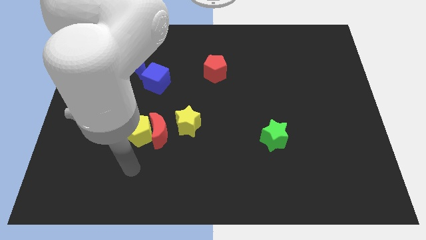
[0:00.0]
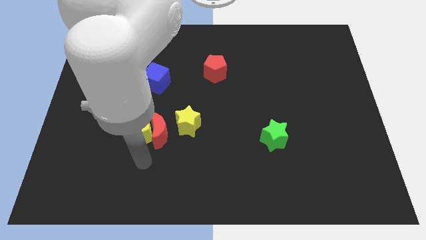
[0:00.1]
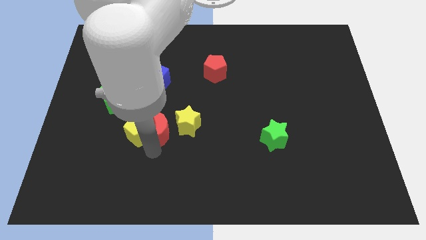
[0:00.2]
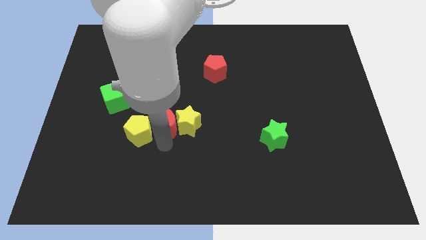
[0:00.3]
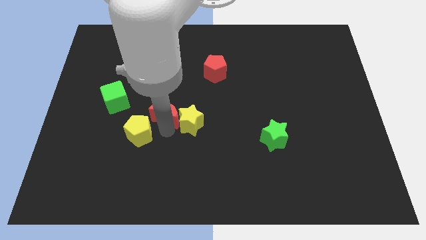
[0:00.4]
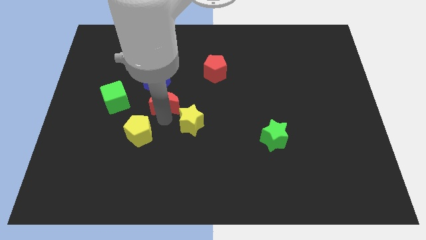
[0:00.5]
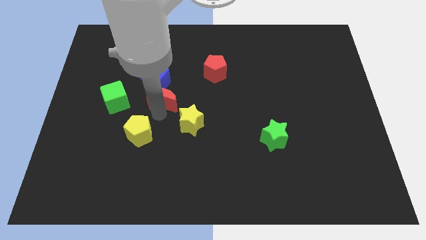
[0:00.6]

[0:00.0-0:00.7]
pull the yellow pentagon apart from the red moon

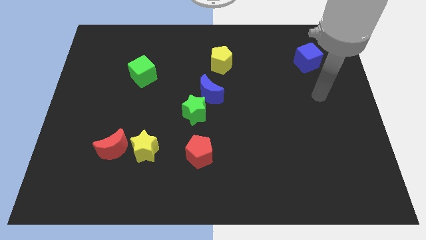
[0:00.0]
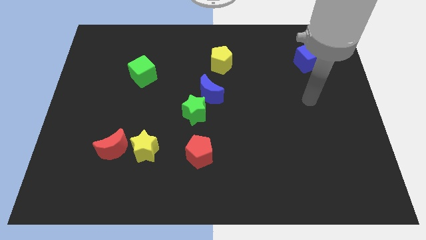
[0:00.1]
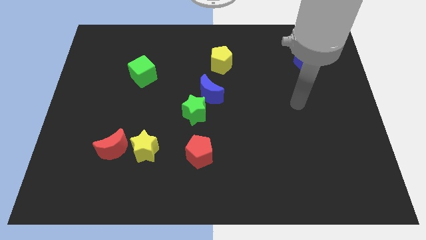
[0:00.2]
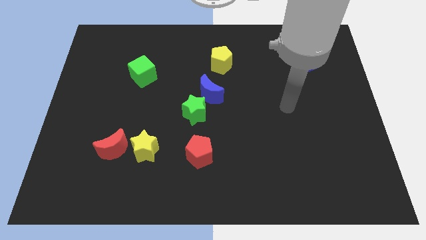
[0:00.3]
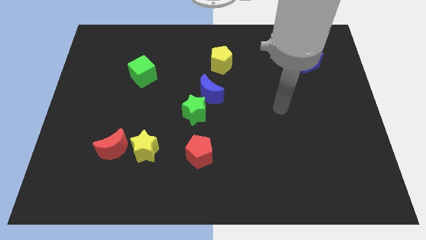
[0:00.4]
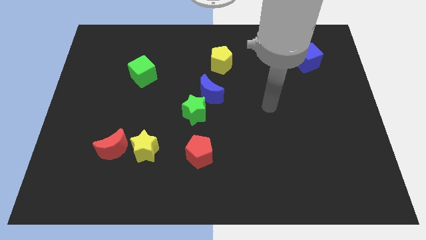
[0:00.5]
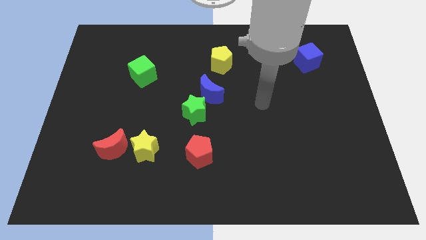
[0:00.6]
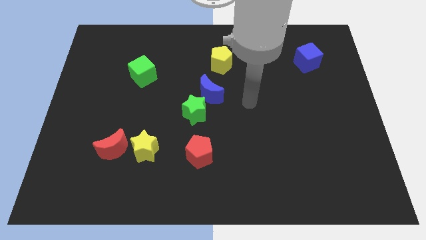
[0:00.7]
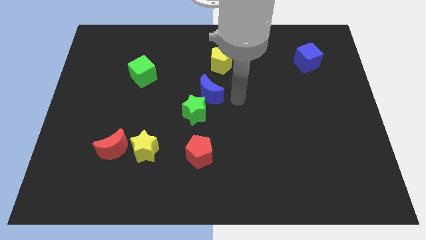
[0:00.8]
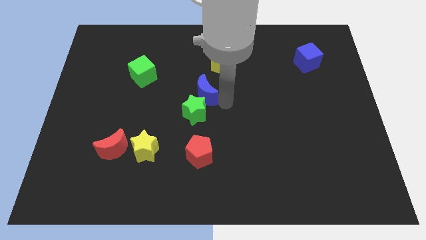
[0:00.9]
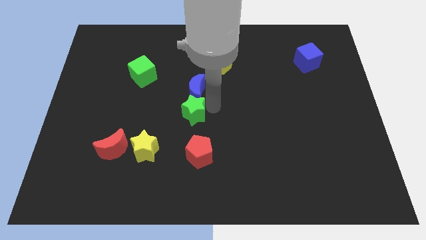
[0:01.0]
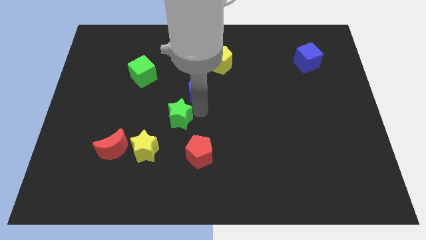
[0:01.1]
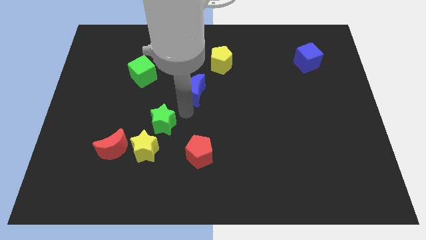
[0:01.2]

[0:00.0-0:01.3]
move the blue moon away from the green star

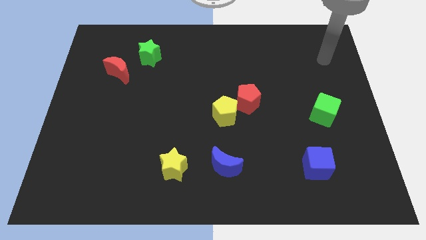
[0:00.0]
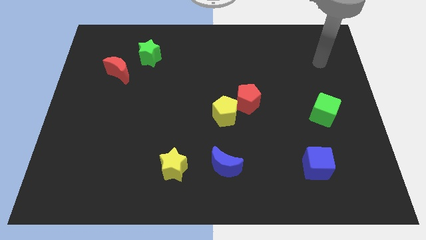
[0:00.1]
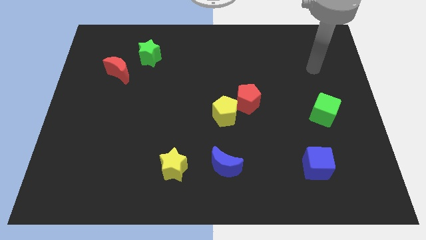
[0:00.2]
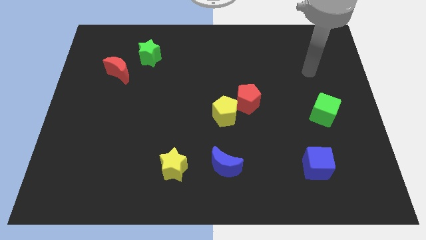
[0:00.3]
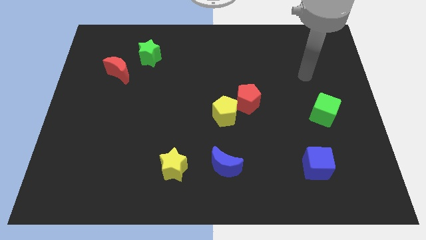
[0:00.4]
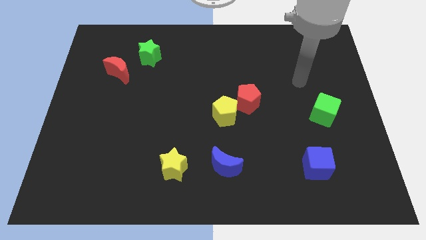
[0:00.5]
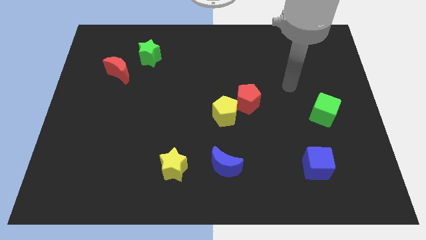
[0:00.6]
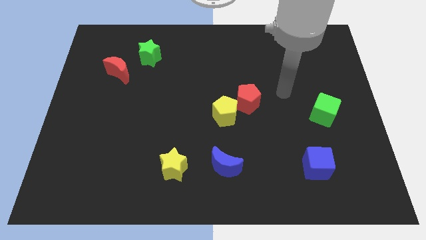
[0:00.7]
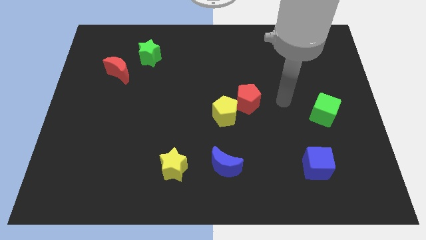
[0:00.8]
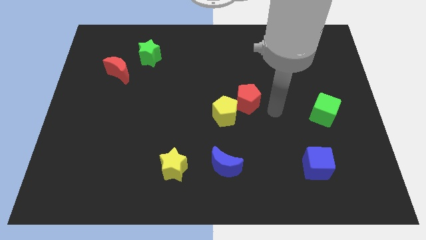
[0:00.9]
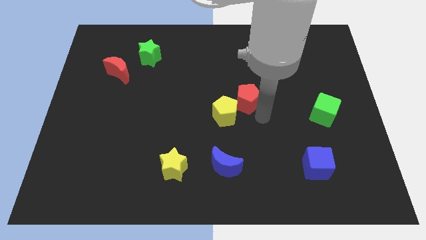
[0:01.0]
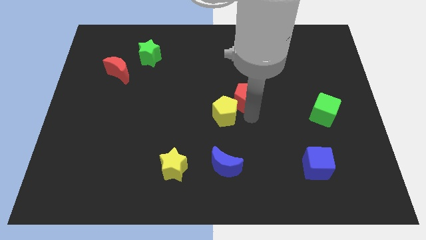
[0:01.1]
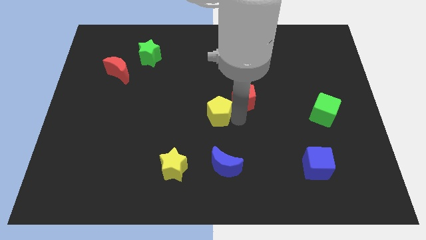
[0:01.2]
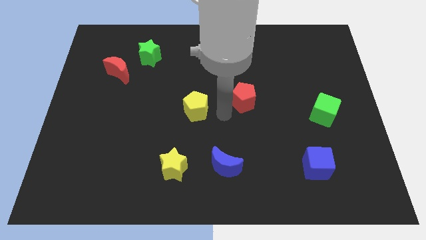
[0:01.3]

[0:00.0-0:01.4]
pull the red pentagon apart from the yellow pentagon

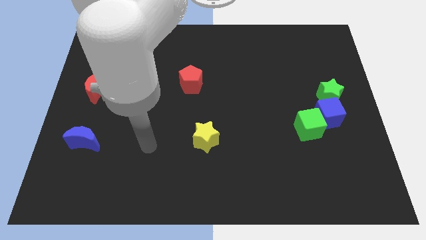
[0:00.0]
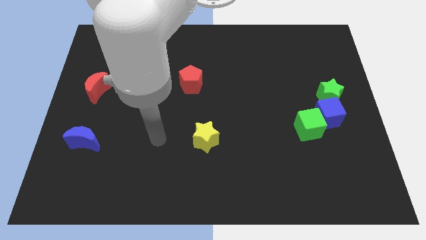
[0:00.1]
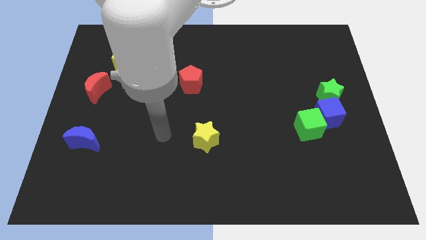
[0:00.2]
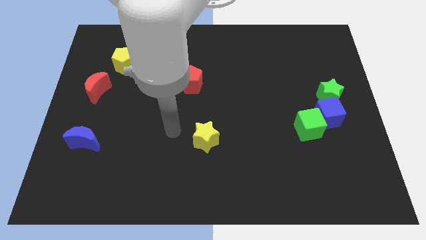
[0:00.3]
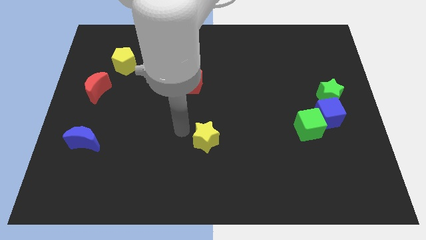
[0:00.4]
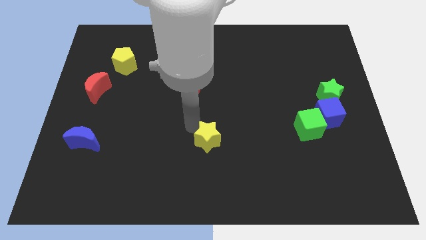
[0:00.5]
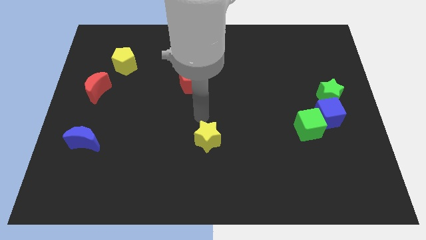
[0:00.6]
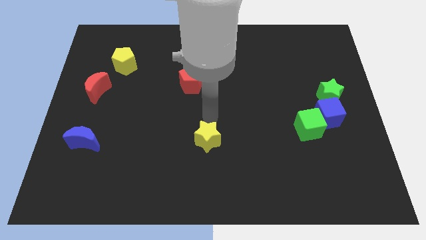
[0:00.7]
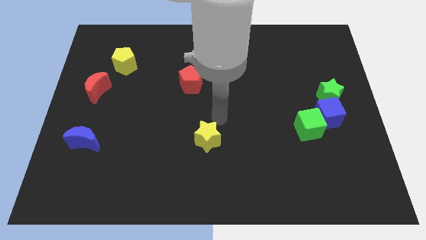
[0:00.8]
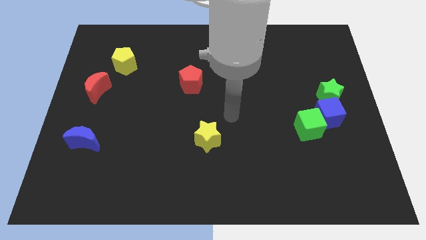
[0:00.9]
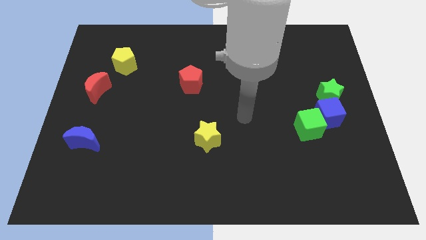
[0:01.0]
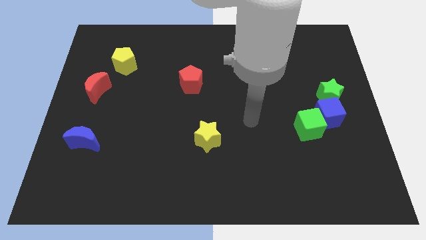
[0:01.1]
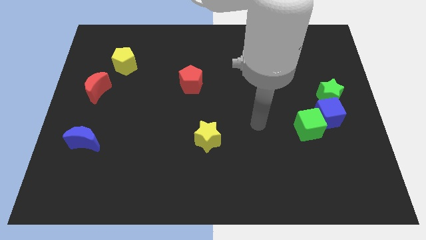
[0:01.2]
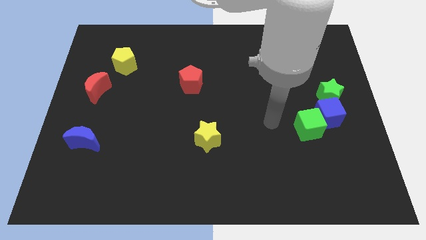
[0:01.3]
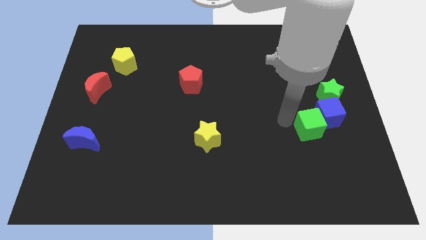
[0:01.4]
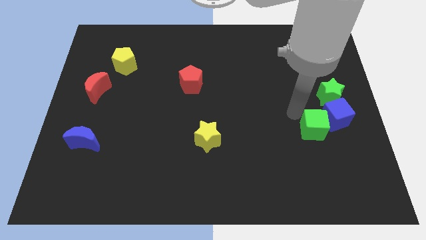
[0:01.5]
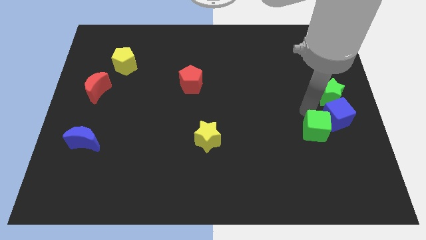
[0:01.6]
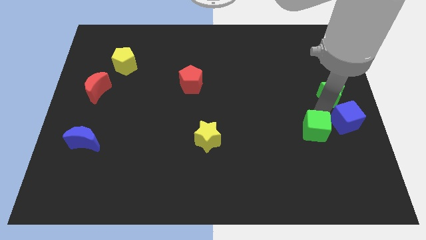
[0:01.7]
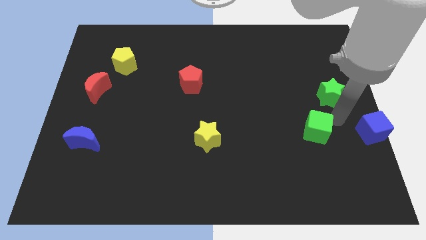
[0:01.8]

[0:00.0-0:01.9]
separate the green cube from the blue cube

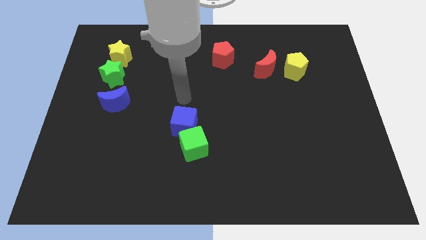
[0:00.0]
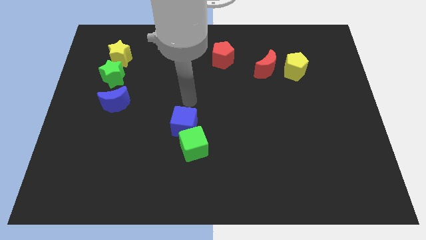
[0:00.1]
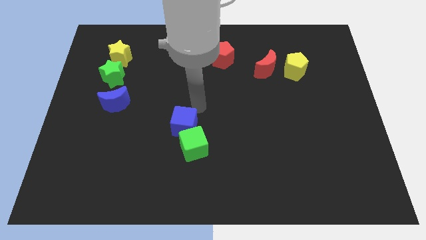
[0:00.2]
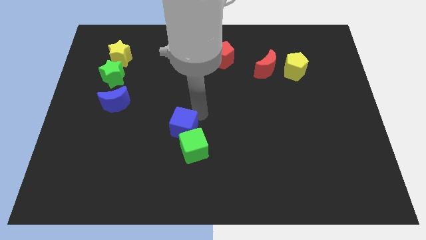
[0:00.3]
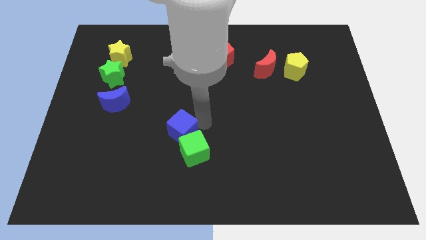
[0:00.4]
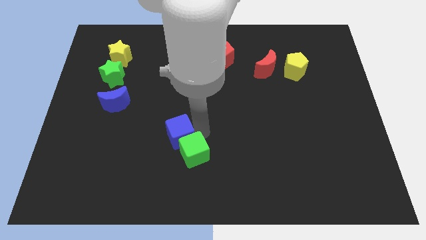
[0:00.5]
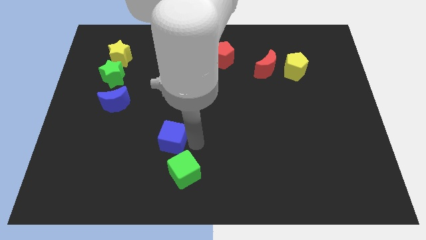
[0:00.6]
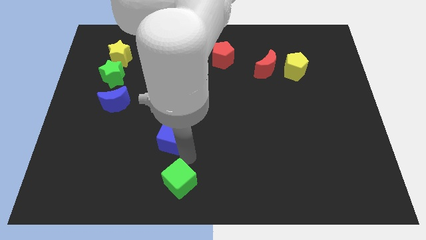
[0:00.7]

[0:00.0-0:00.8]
separate the blue cube from the green cube

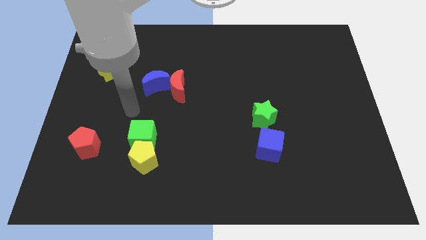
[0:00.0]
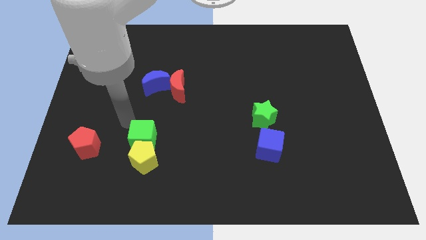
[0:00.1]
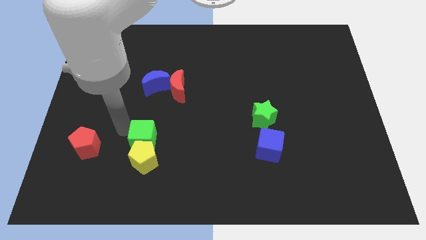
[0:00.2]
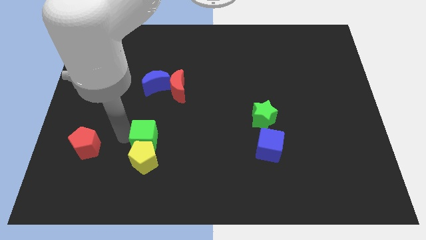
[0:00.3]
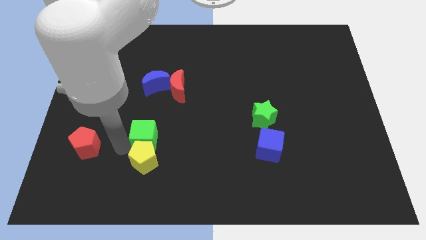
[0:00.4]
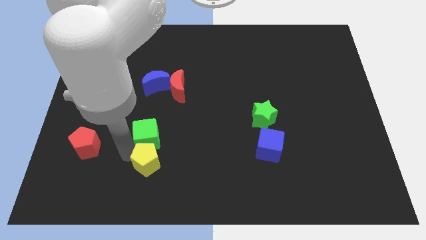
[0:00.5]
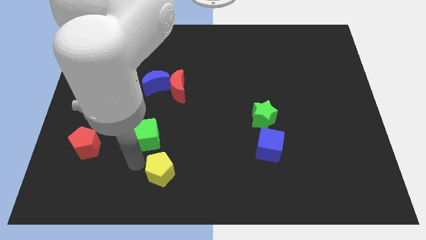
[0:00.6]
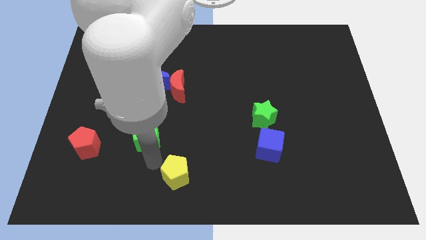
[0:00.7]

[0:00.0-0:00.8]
move the green cube away from the yellow pentagon

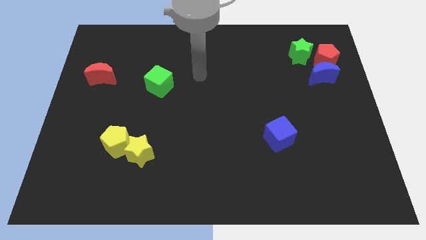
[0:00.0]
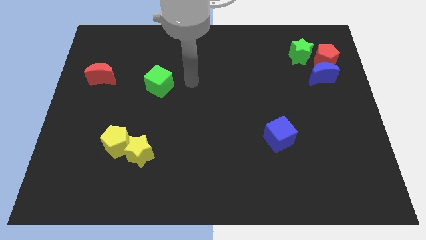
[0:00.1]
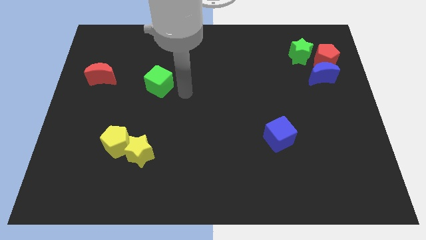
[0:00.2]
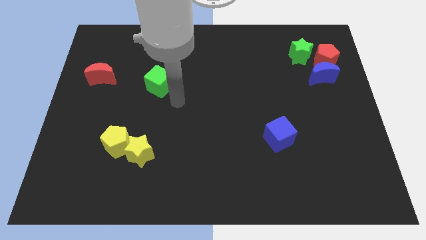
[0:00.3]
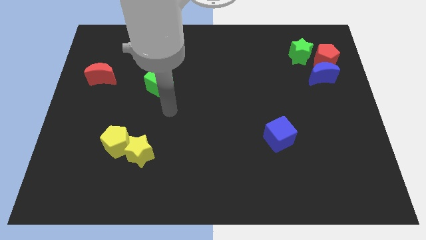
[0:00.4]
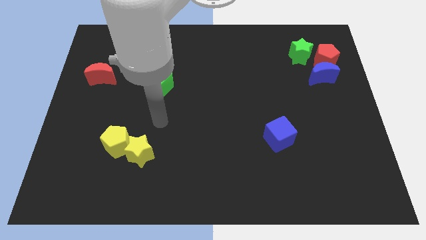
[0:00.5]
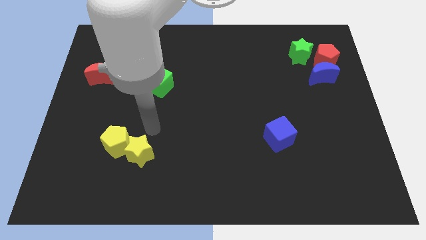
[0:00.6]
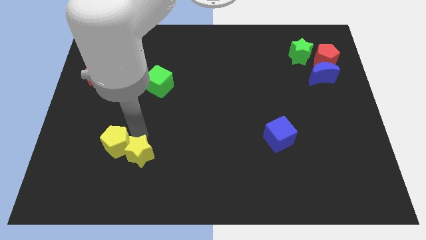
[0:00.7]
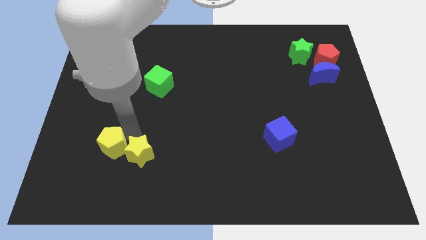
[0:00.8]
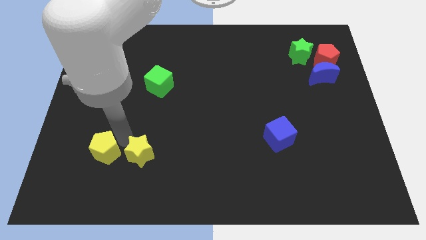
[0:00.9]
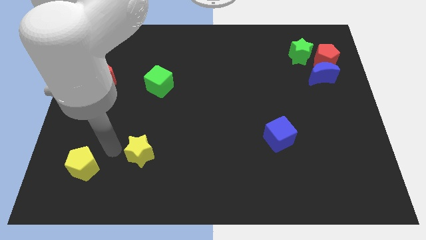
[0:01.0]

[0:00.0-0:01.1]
pull the yellow star apart from the yellow pentagon

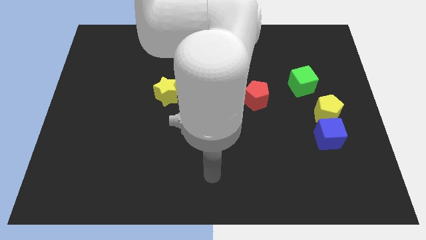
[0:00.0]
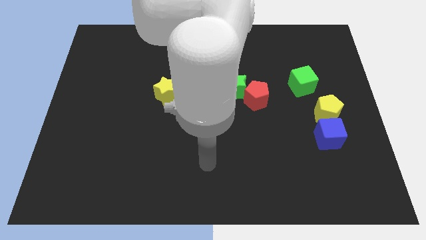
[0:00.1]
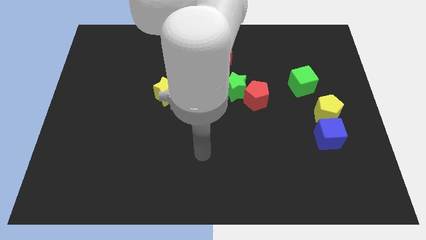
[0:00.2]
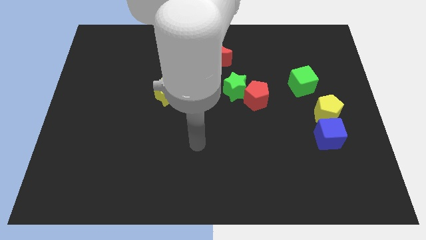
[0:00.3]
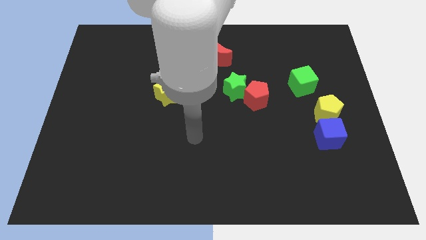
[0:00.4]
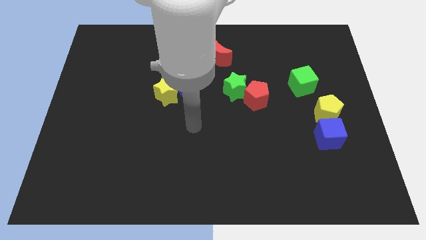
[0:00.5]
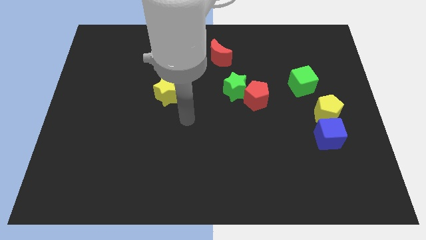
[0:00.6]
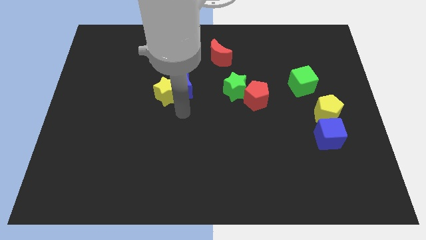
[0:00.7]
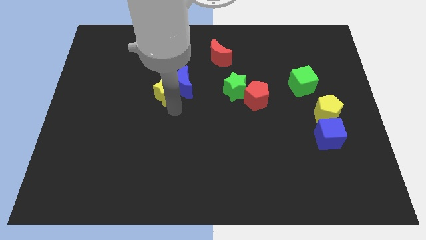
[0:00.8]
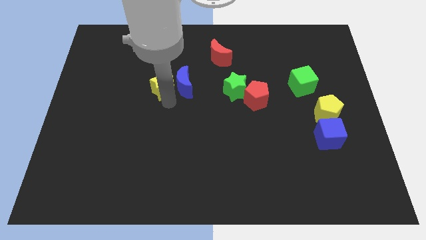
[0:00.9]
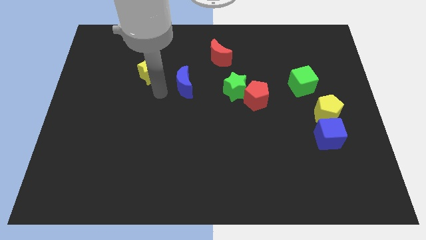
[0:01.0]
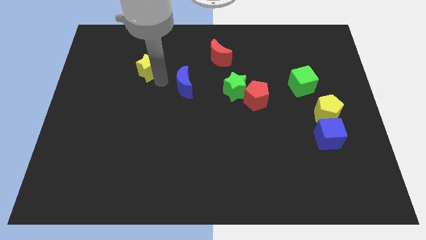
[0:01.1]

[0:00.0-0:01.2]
pull the blue moon apart from the yellow star

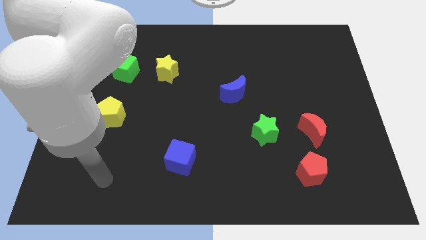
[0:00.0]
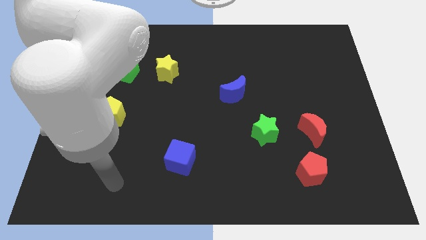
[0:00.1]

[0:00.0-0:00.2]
pull the red moon apart from the red pentagon
